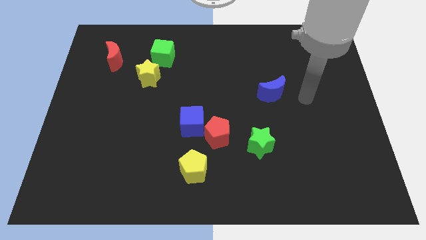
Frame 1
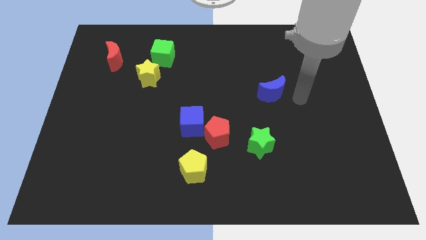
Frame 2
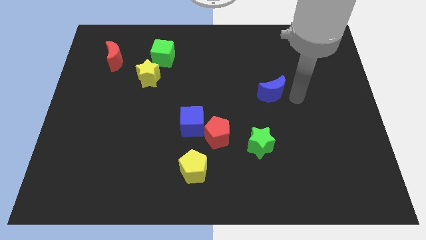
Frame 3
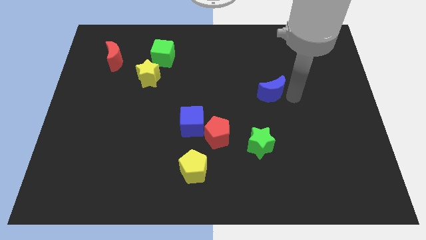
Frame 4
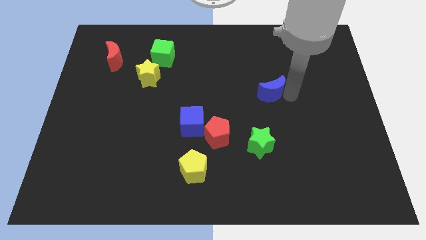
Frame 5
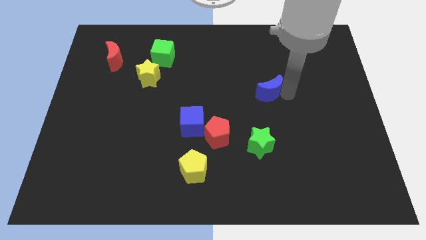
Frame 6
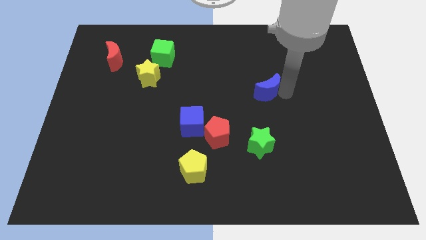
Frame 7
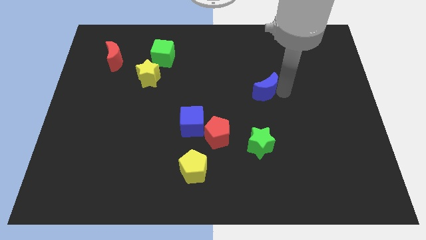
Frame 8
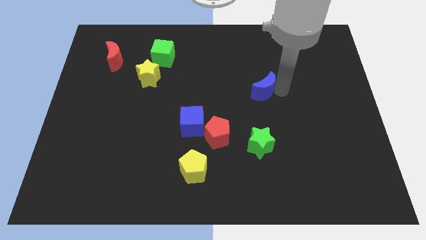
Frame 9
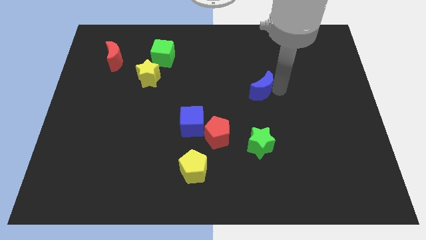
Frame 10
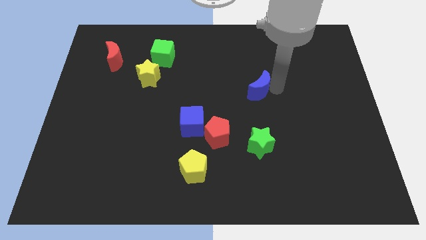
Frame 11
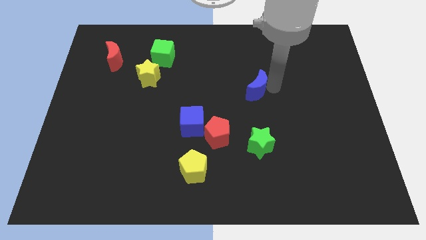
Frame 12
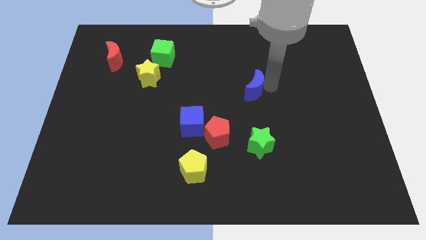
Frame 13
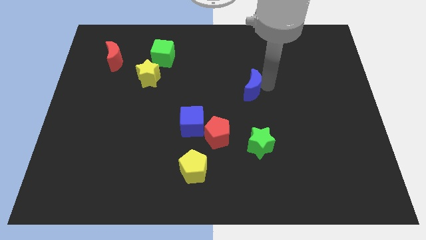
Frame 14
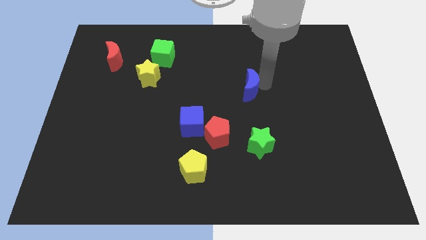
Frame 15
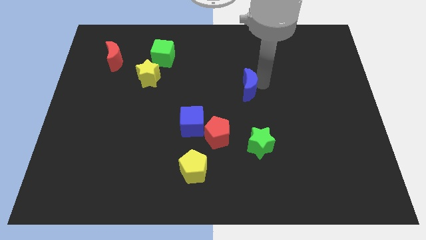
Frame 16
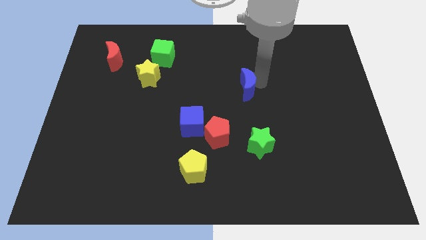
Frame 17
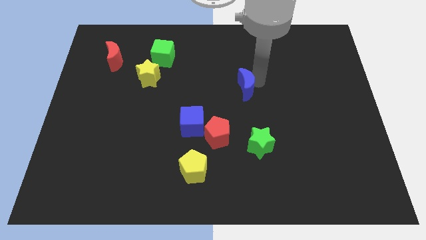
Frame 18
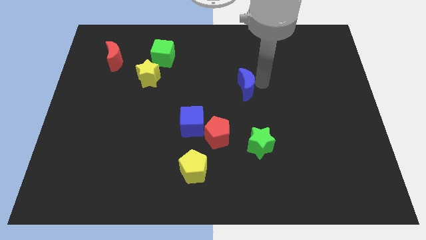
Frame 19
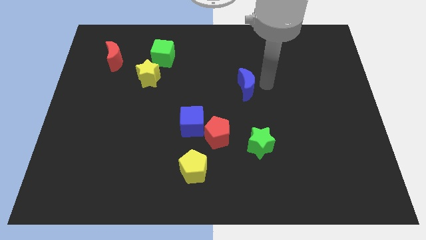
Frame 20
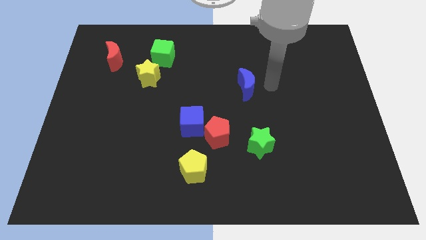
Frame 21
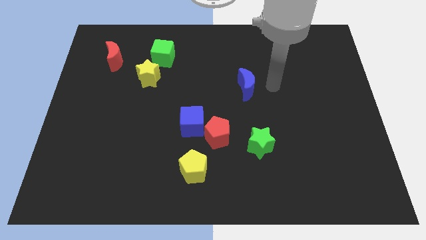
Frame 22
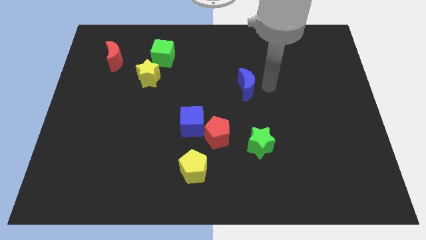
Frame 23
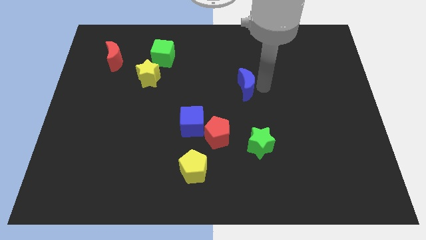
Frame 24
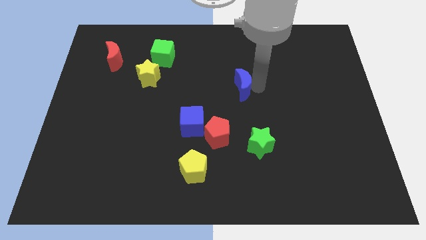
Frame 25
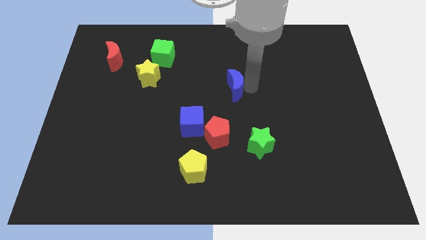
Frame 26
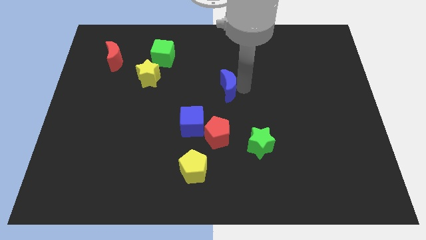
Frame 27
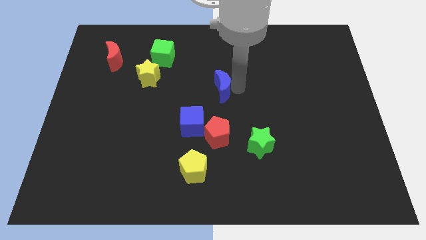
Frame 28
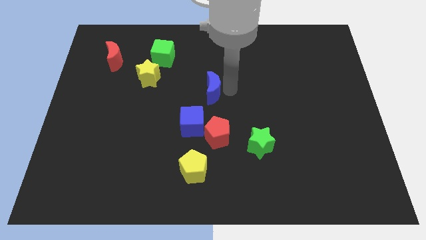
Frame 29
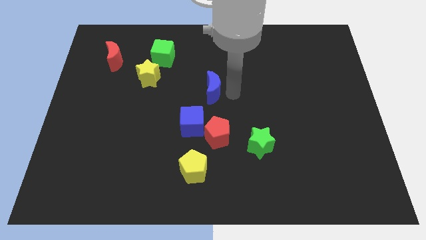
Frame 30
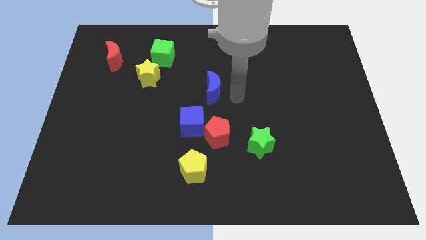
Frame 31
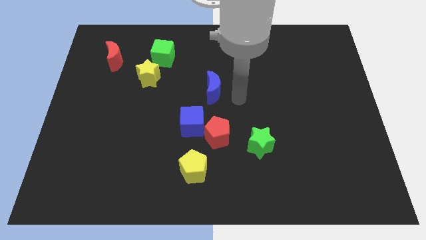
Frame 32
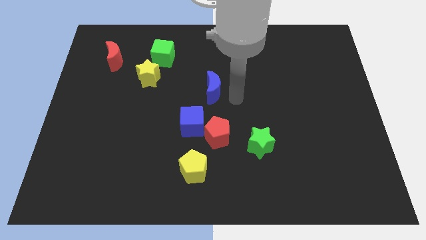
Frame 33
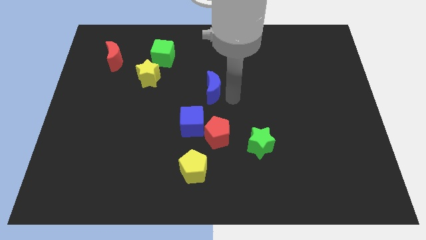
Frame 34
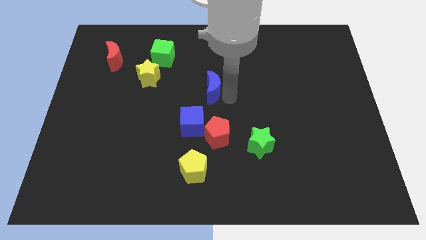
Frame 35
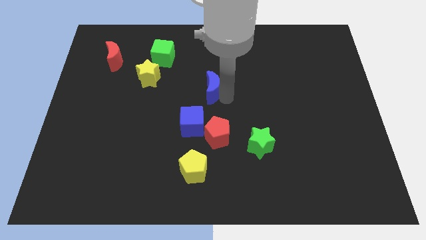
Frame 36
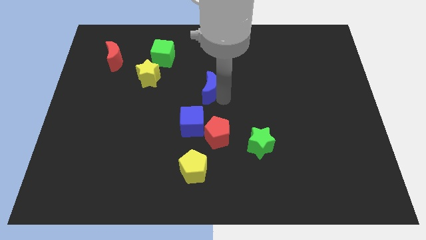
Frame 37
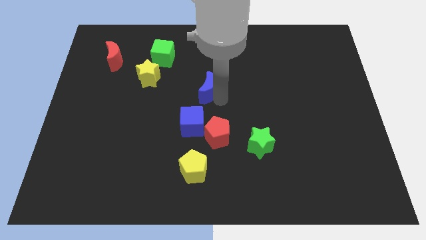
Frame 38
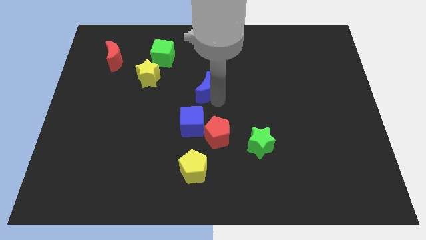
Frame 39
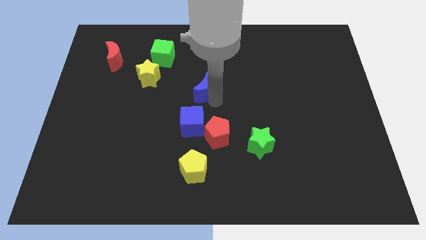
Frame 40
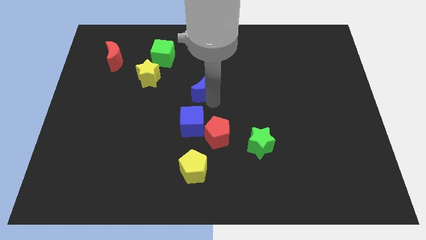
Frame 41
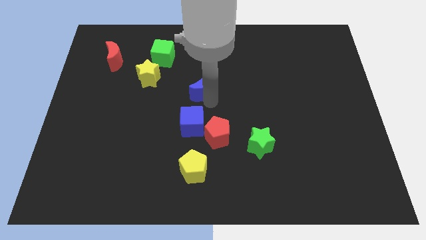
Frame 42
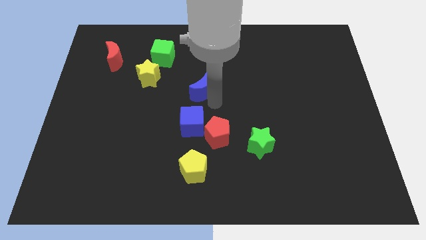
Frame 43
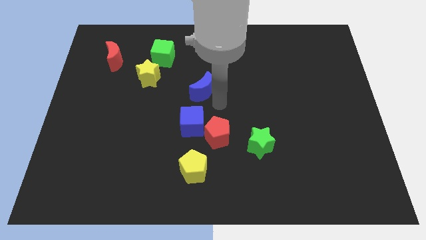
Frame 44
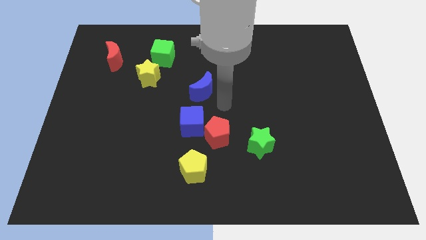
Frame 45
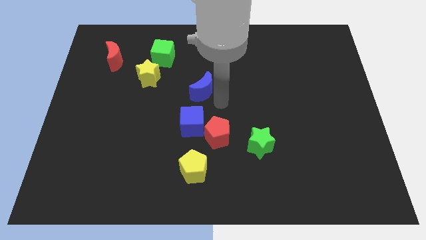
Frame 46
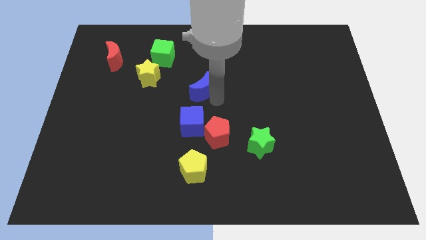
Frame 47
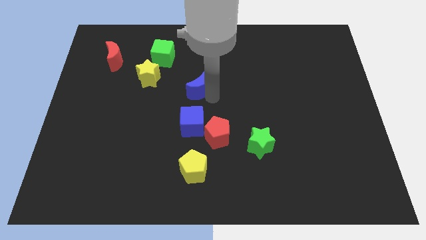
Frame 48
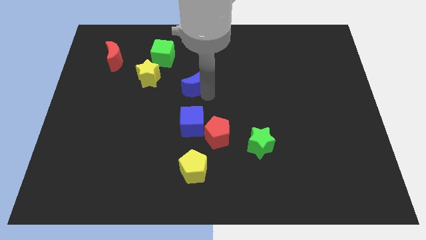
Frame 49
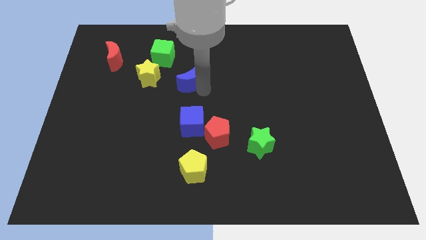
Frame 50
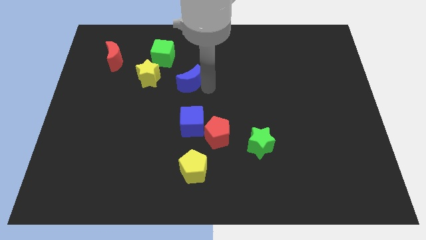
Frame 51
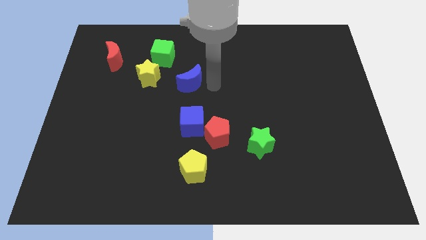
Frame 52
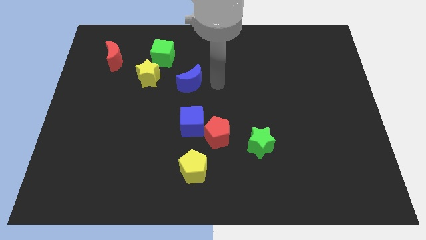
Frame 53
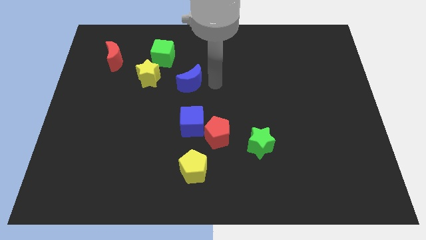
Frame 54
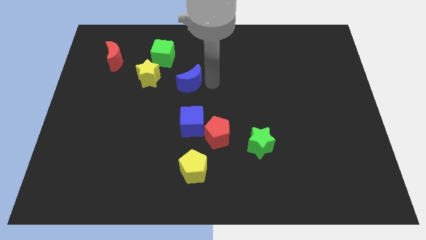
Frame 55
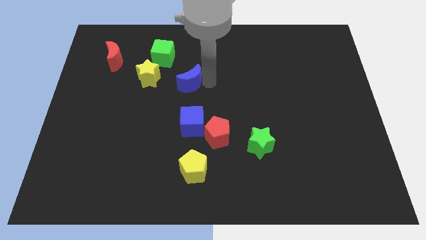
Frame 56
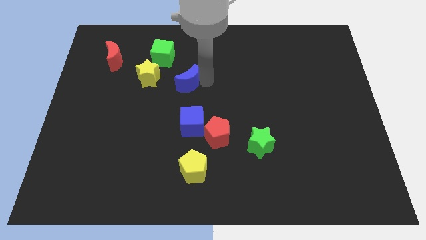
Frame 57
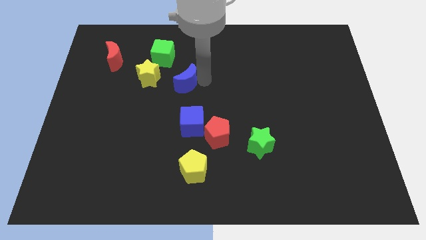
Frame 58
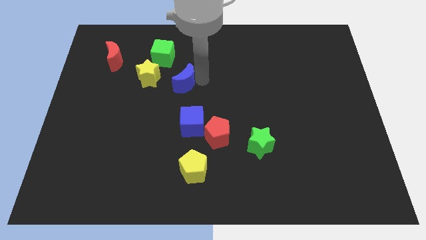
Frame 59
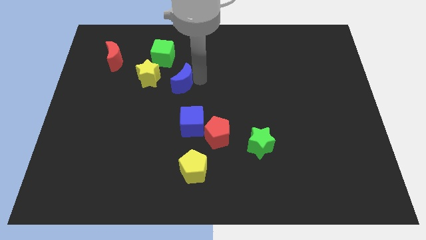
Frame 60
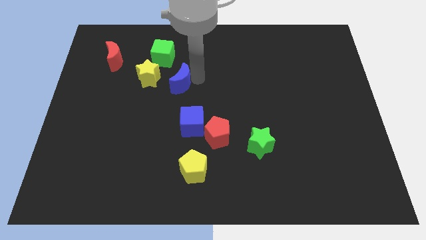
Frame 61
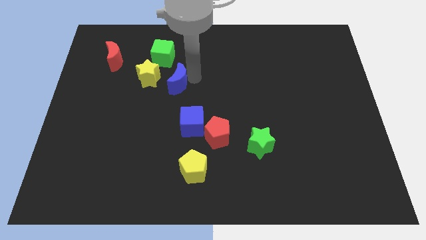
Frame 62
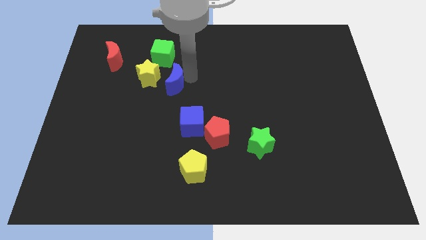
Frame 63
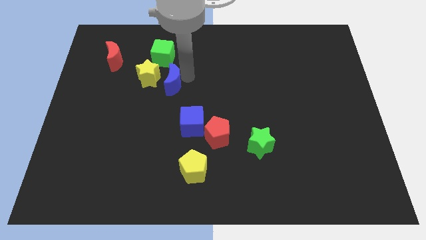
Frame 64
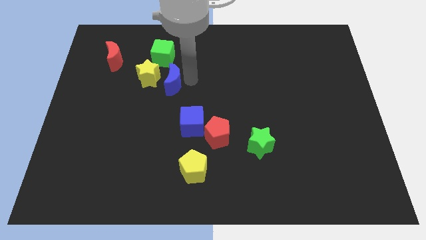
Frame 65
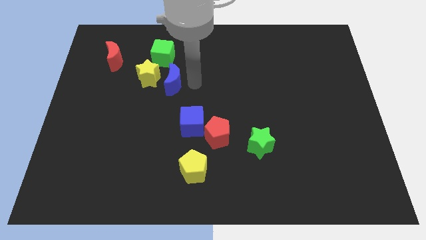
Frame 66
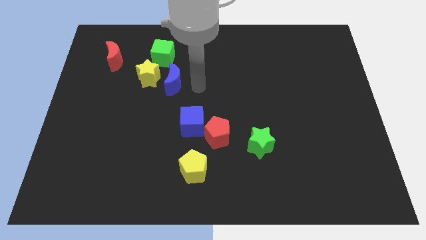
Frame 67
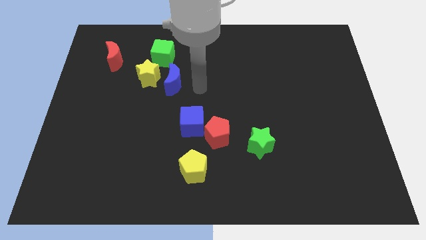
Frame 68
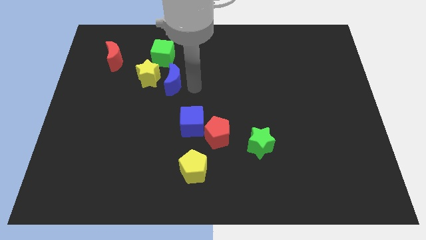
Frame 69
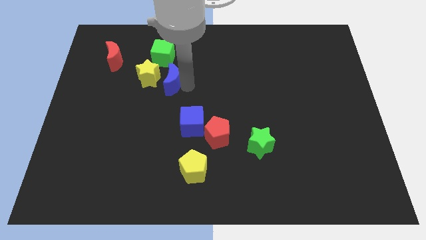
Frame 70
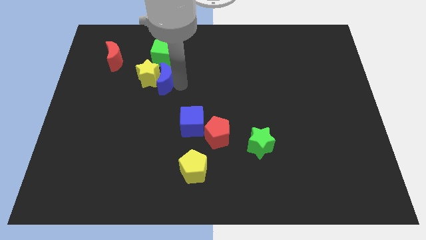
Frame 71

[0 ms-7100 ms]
push the blue moon next to the yellow star
